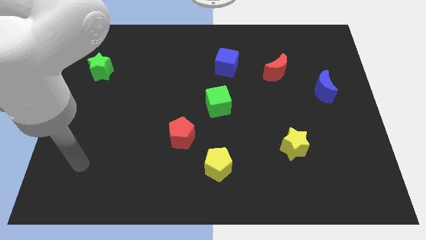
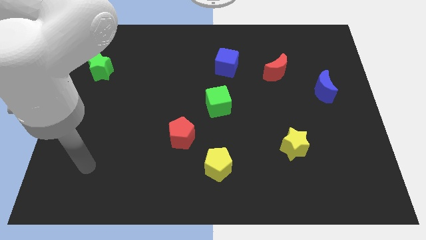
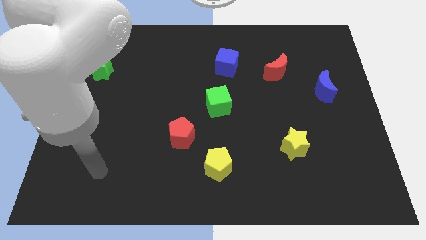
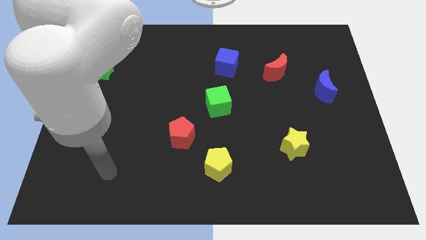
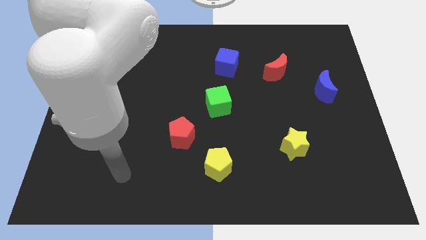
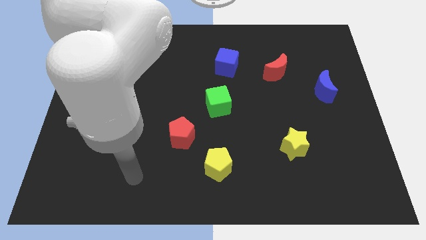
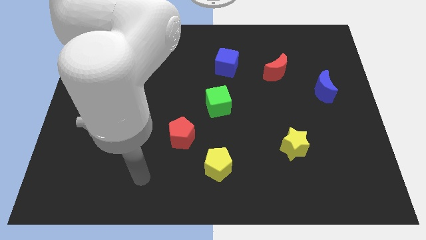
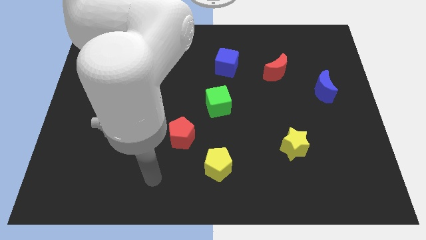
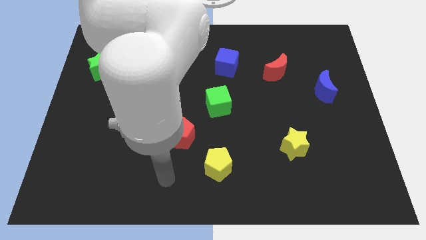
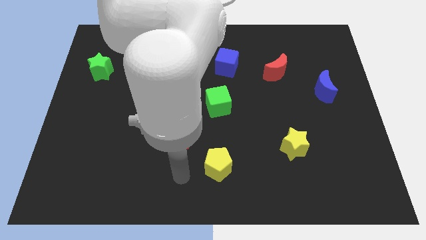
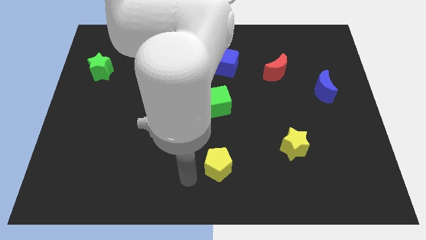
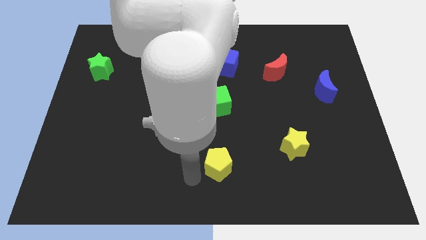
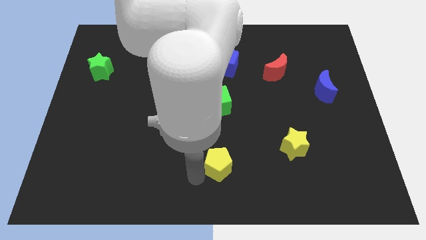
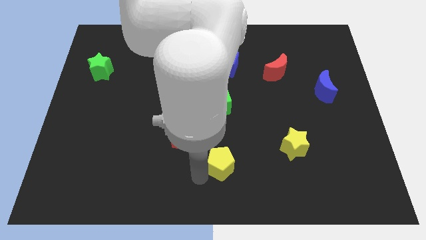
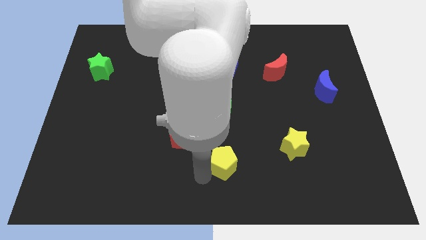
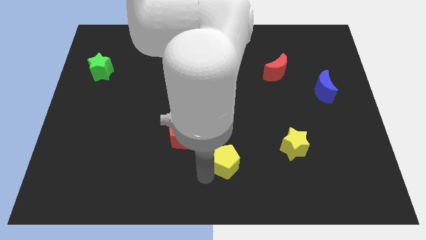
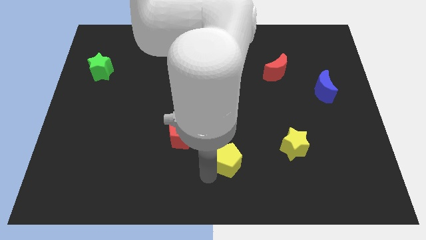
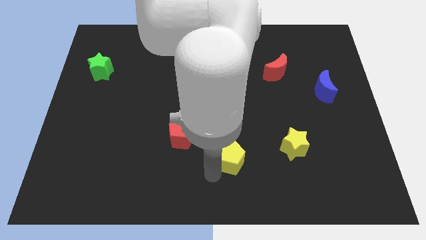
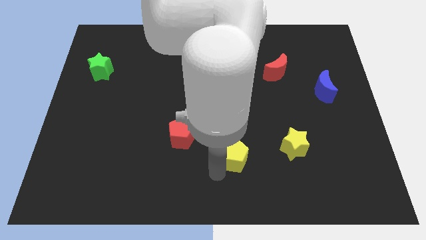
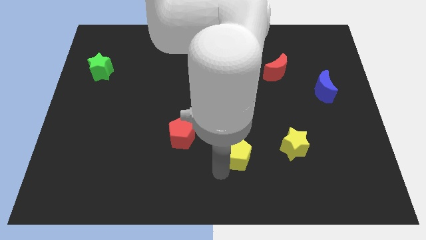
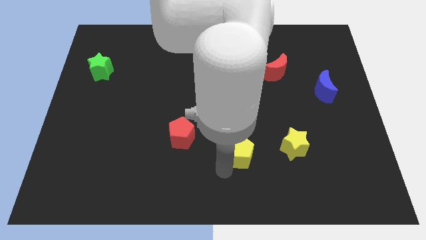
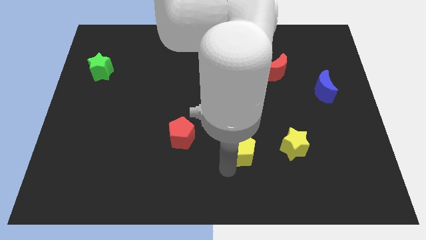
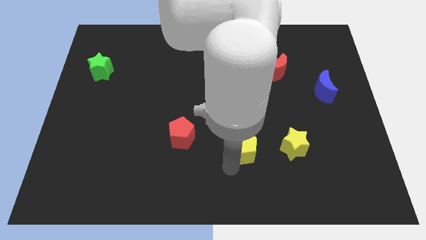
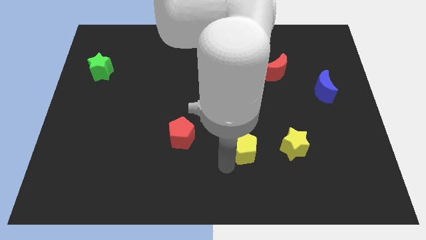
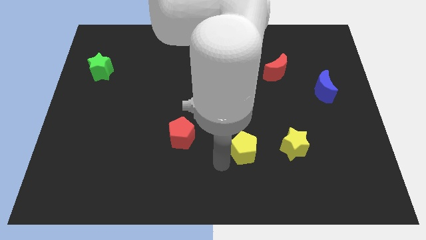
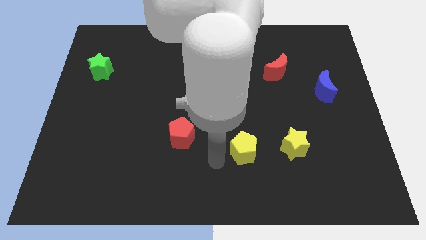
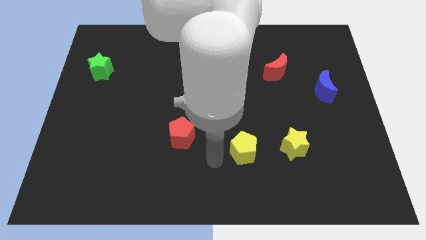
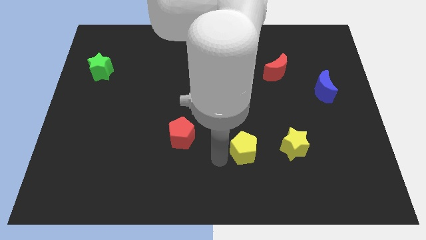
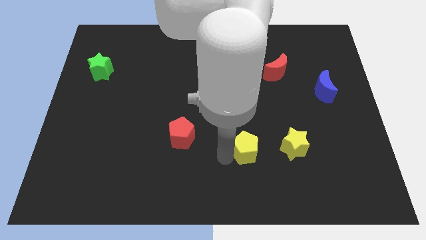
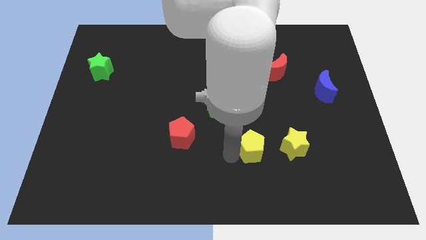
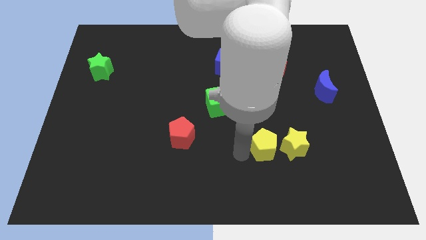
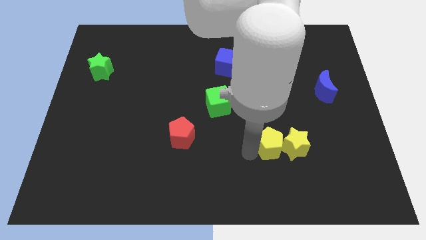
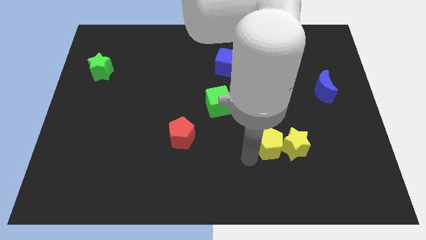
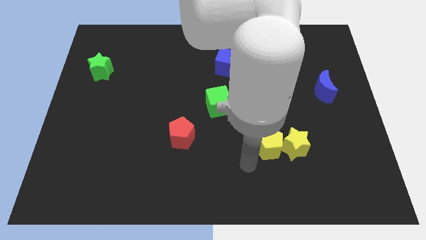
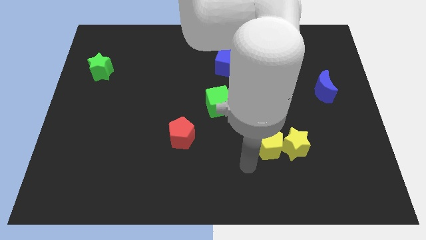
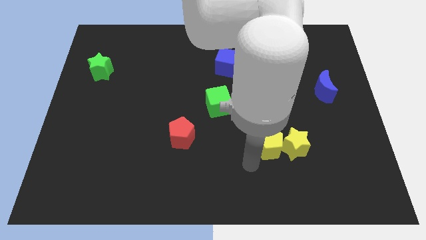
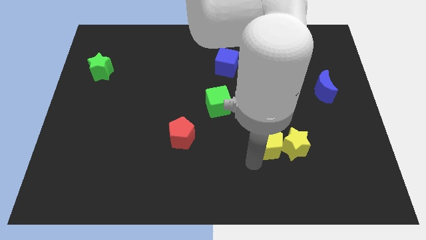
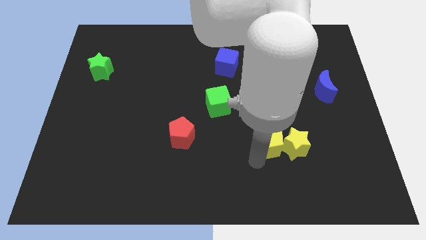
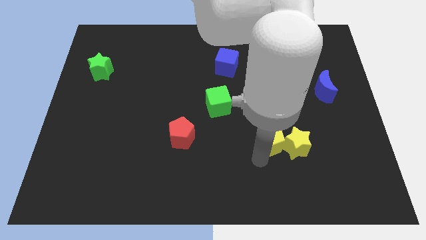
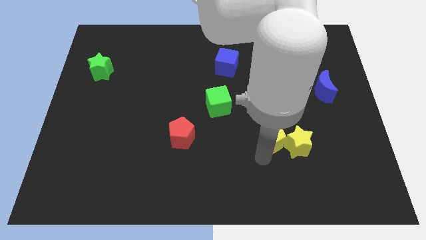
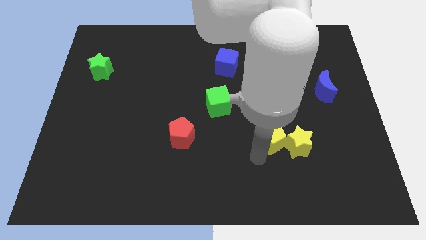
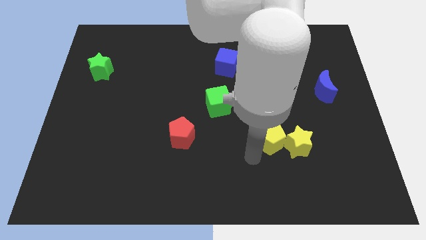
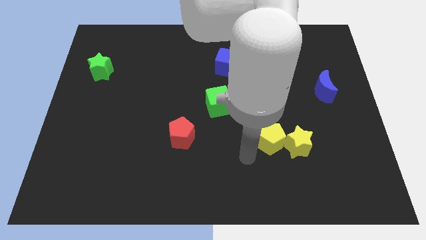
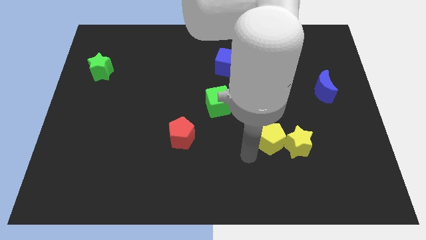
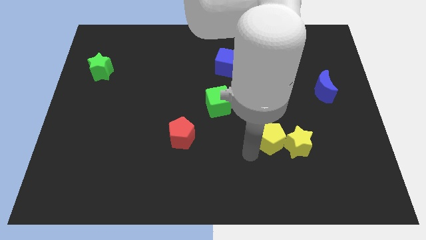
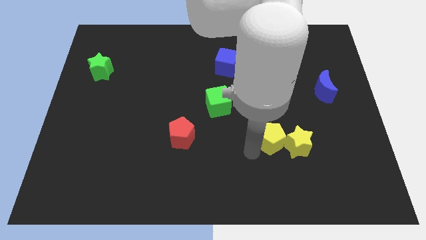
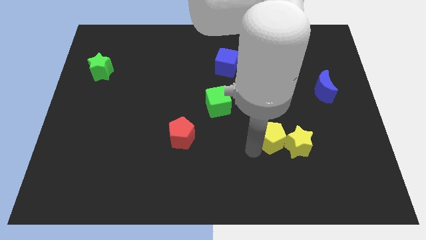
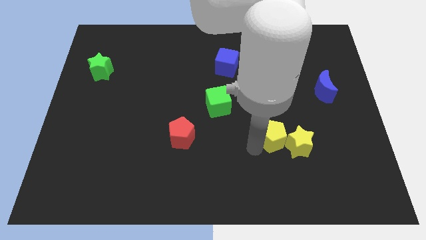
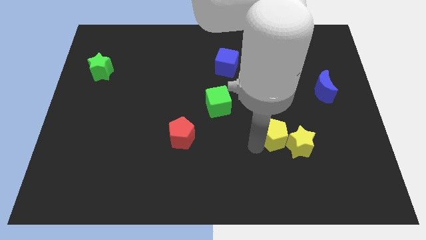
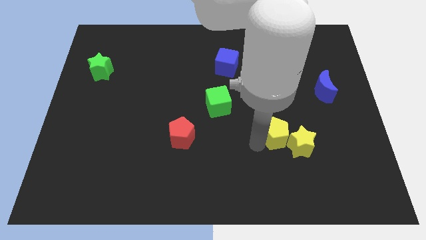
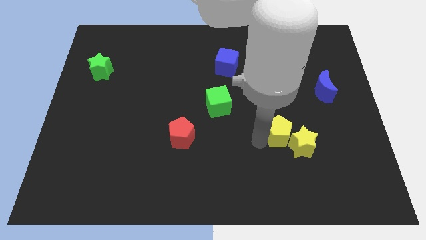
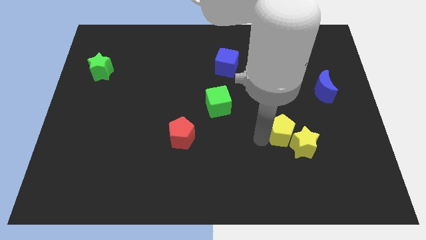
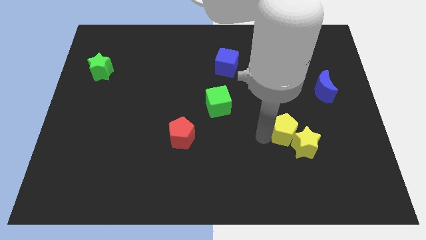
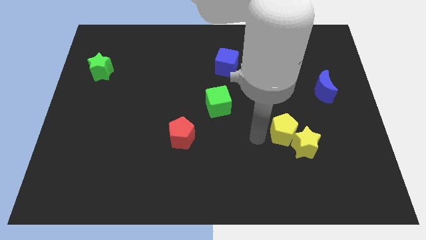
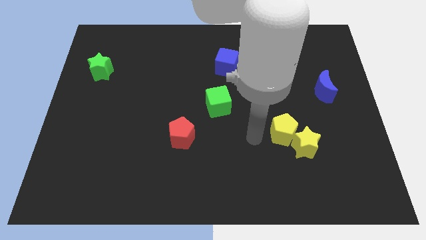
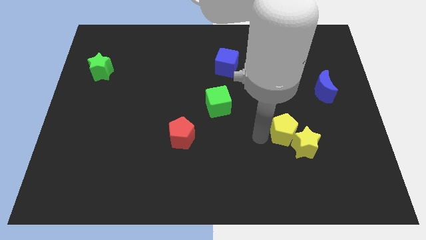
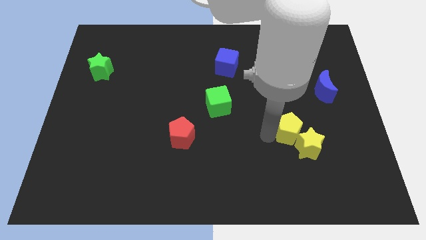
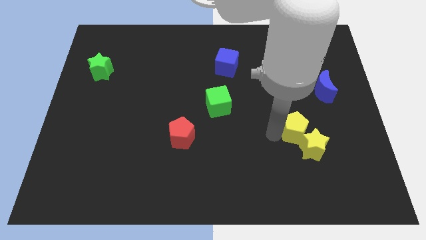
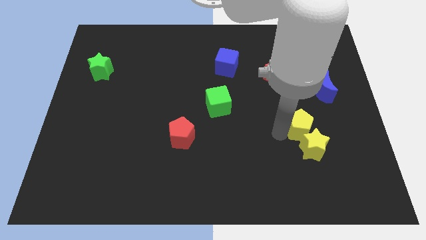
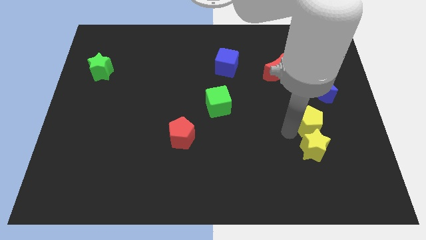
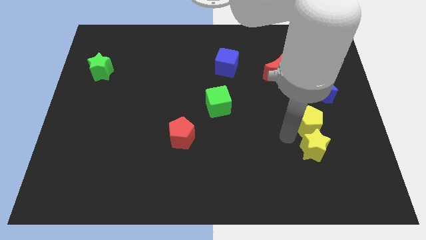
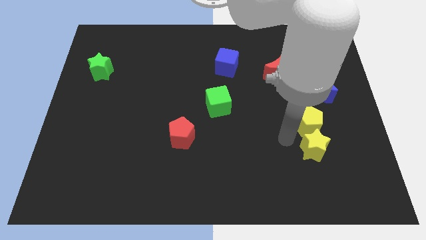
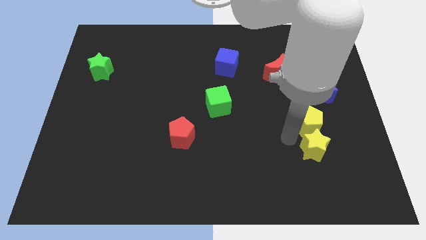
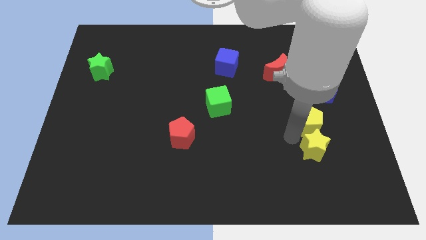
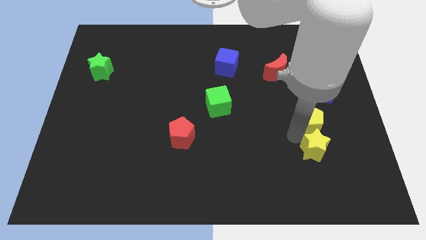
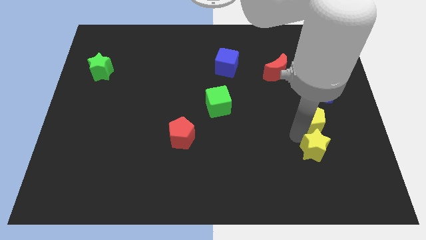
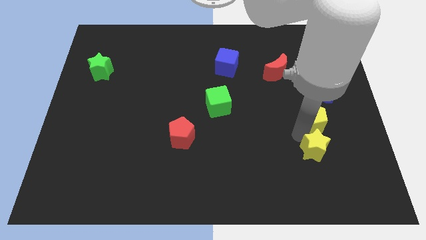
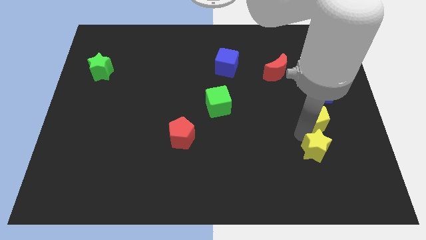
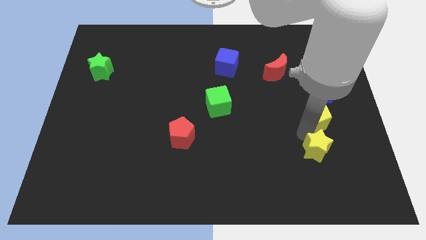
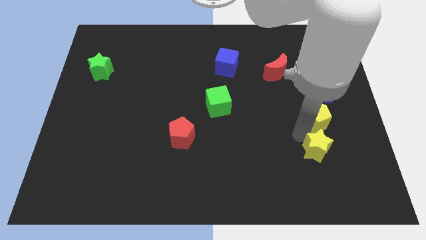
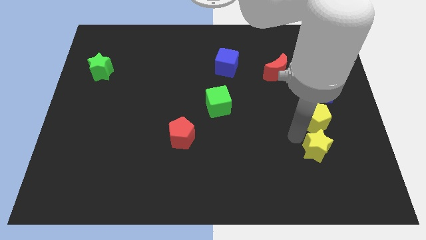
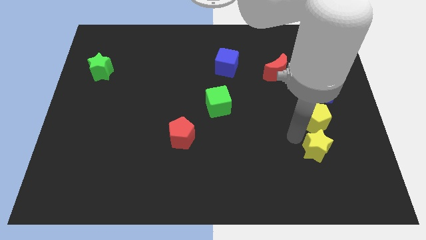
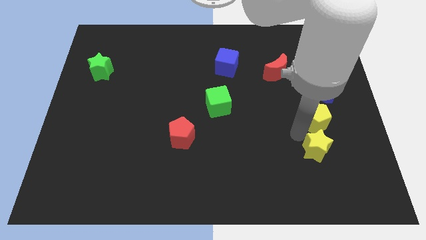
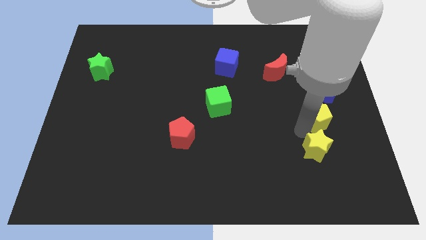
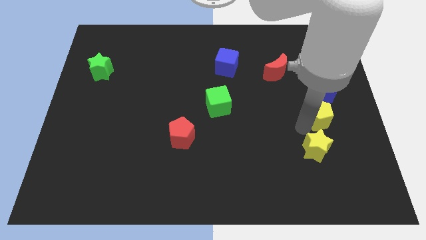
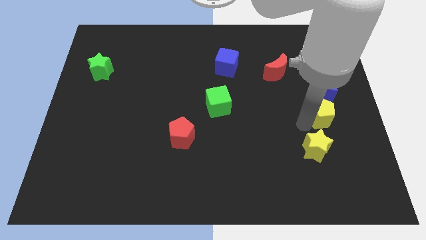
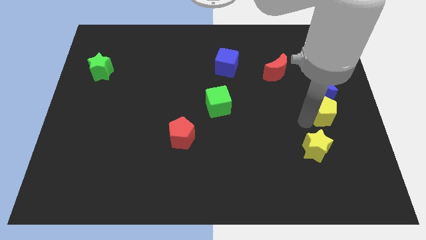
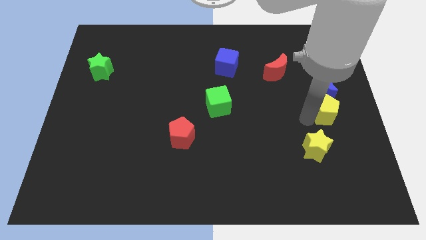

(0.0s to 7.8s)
put the yellow pentagon to the center right
